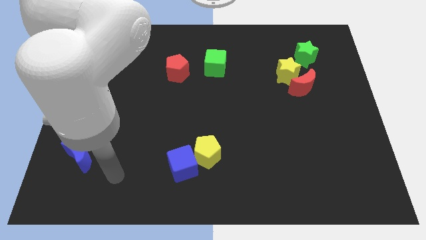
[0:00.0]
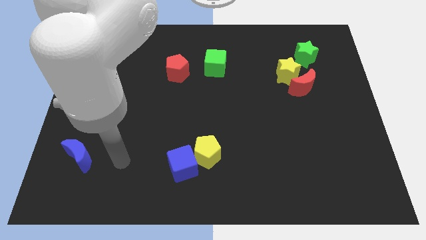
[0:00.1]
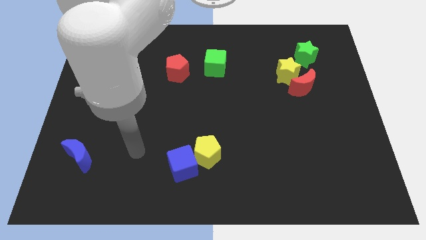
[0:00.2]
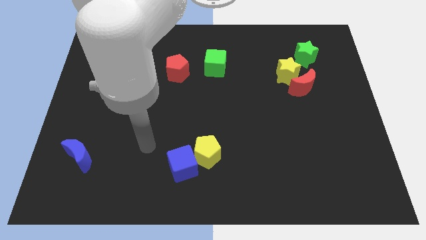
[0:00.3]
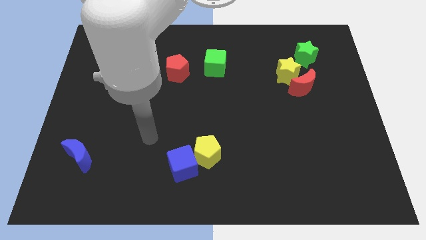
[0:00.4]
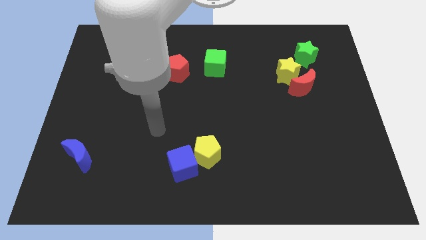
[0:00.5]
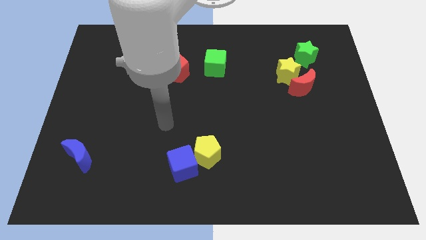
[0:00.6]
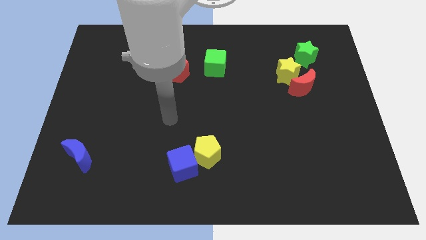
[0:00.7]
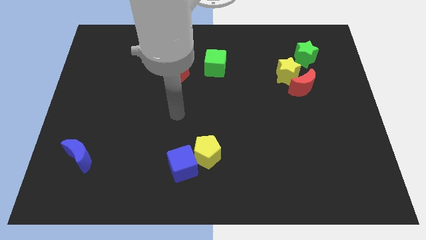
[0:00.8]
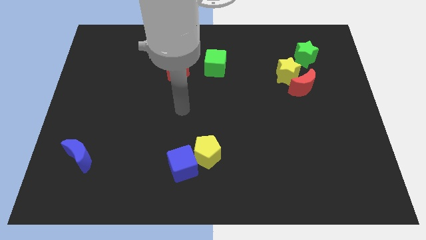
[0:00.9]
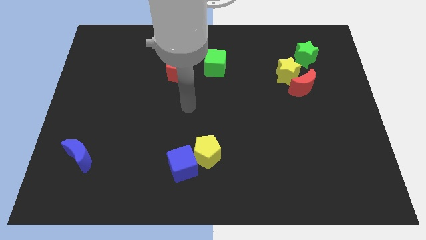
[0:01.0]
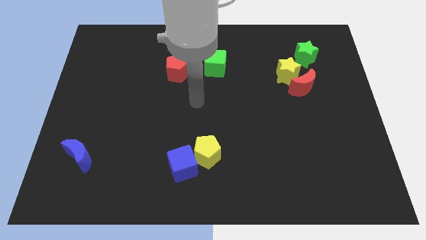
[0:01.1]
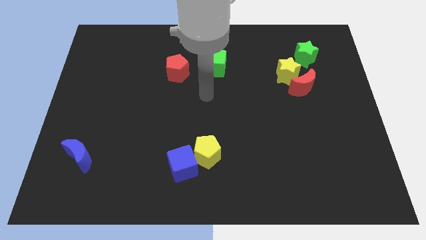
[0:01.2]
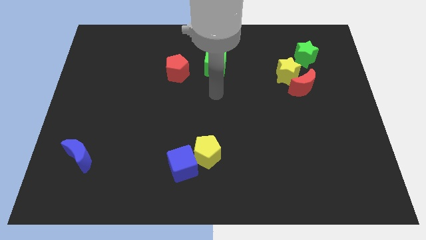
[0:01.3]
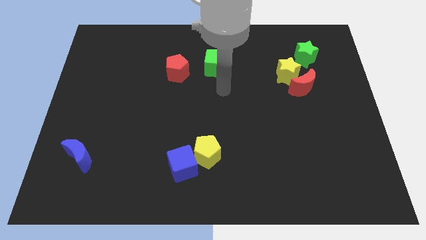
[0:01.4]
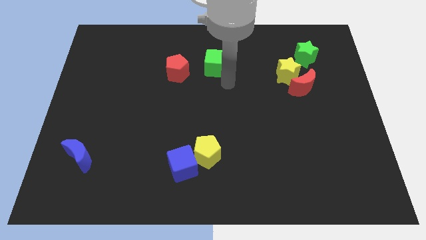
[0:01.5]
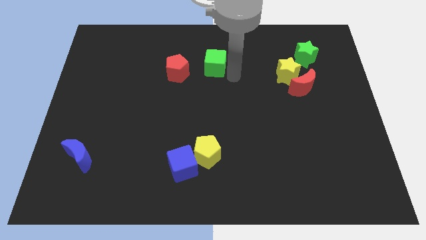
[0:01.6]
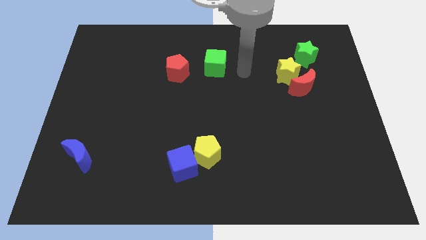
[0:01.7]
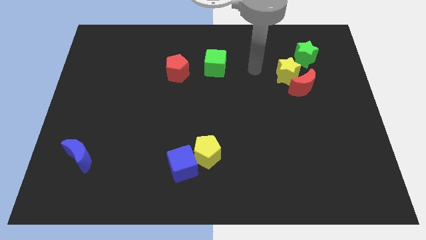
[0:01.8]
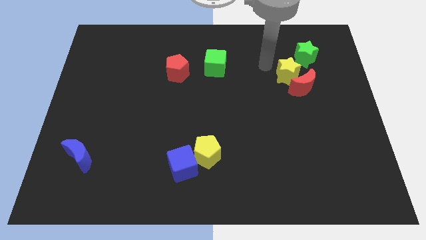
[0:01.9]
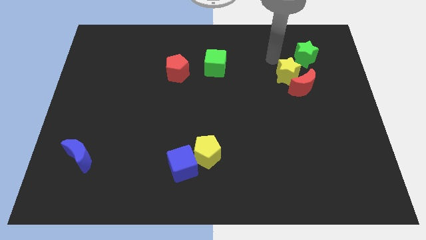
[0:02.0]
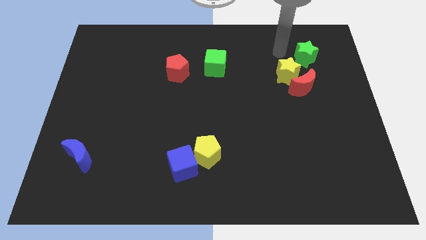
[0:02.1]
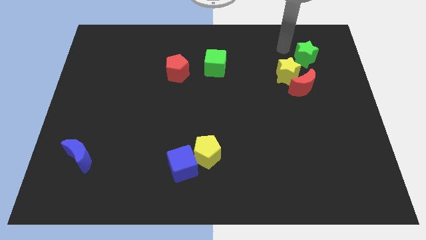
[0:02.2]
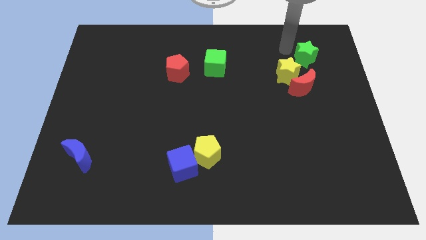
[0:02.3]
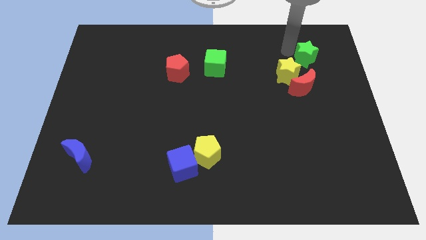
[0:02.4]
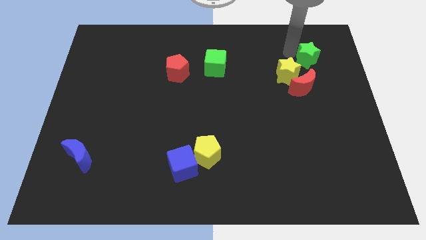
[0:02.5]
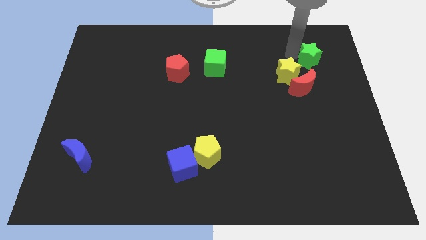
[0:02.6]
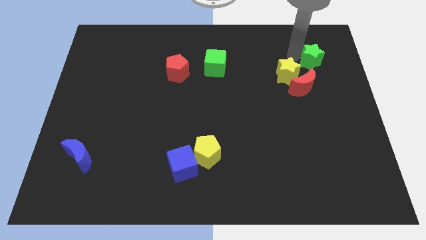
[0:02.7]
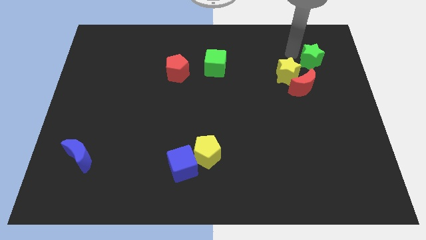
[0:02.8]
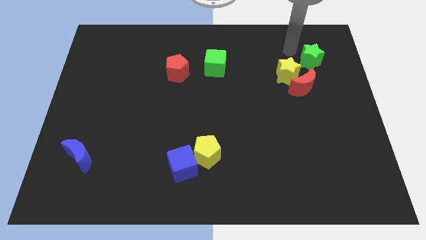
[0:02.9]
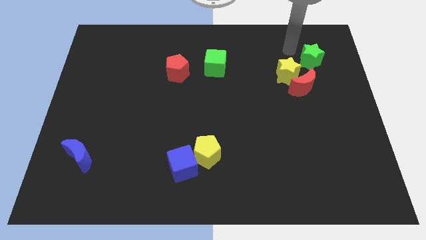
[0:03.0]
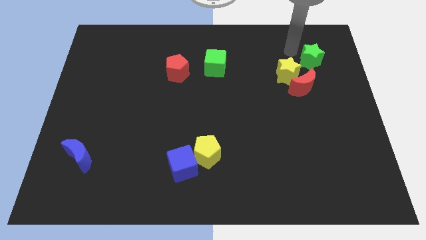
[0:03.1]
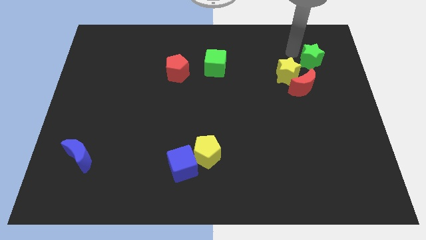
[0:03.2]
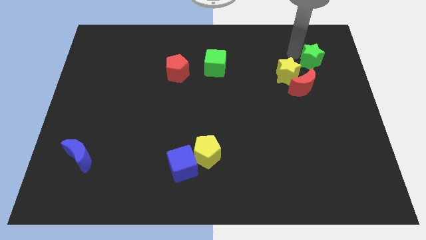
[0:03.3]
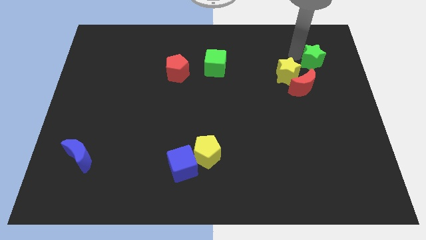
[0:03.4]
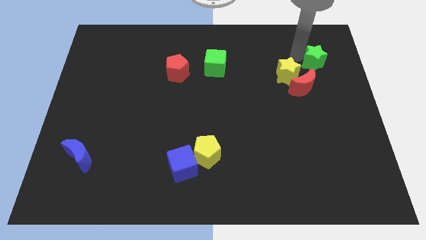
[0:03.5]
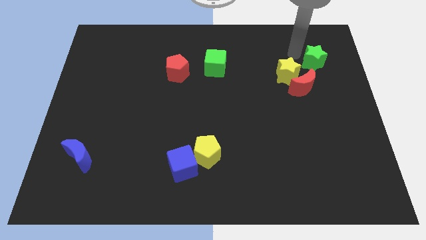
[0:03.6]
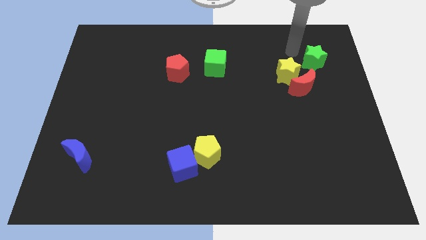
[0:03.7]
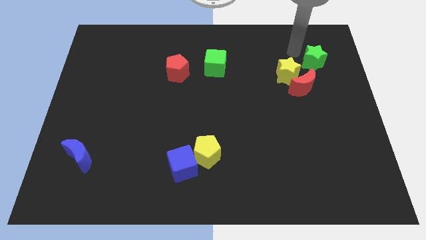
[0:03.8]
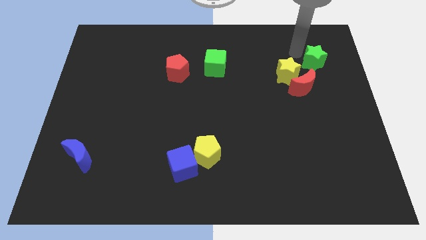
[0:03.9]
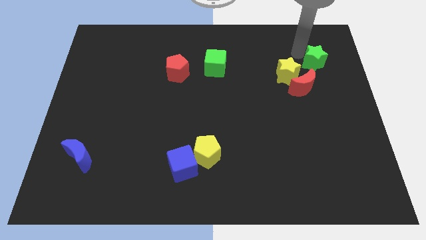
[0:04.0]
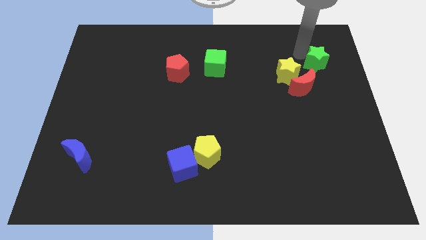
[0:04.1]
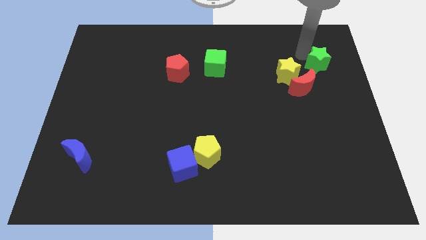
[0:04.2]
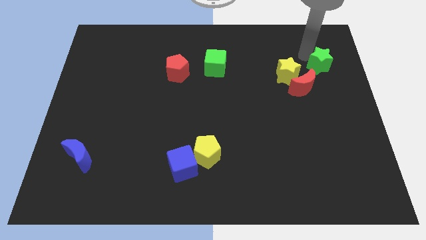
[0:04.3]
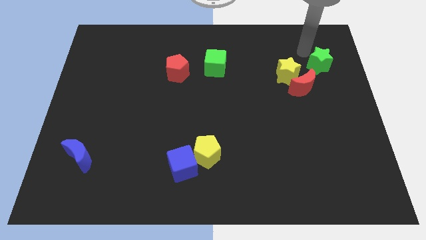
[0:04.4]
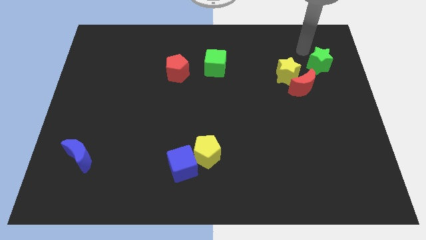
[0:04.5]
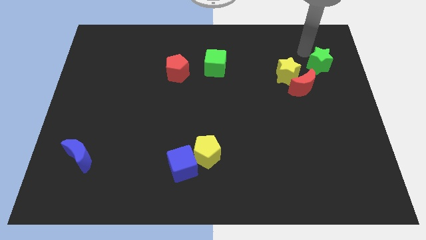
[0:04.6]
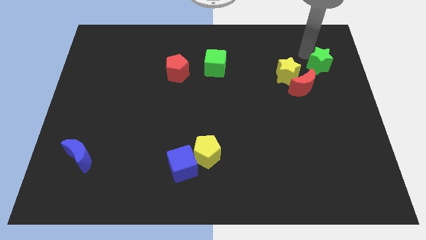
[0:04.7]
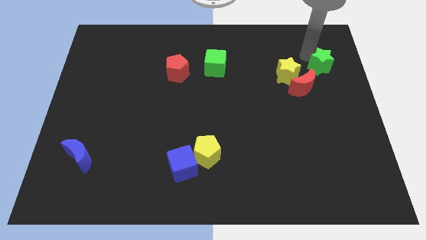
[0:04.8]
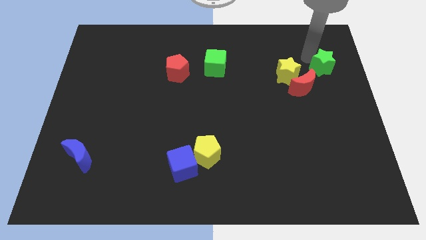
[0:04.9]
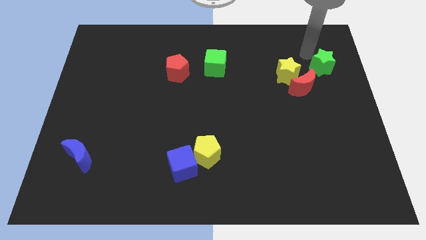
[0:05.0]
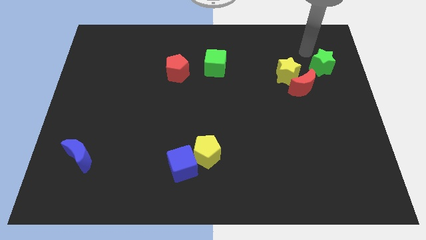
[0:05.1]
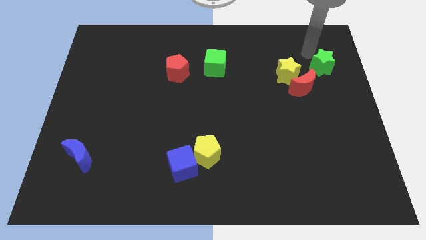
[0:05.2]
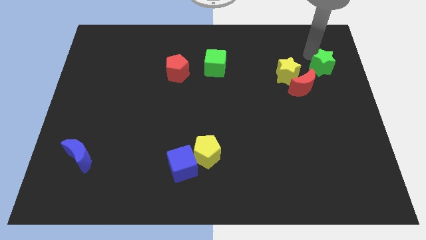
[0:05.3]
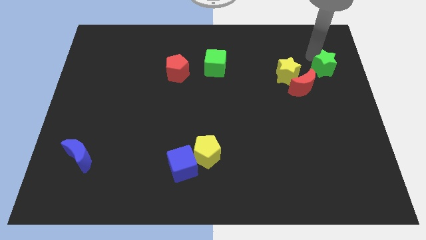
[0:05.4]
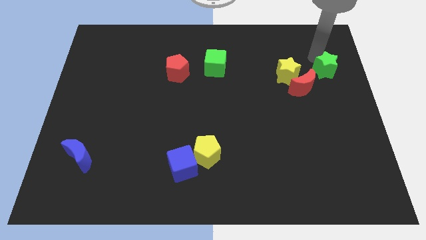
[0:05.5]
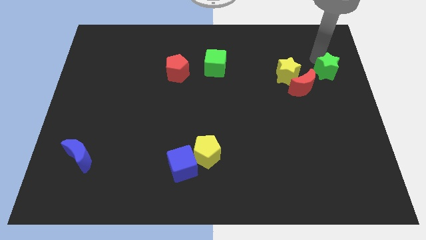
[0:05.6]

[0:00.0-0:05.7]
move the green star to the right side

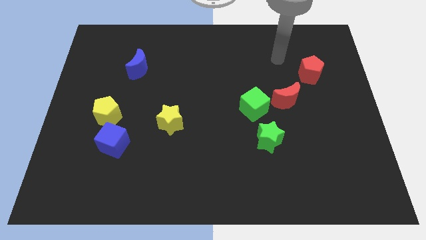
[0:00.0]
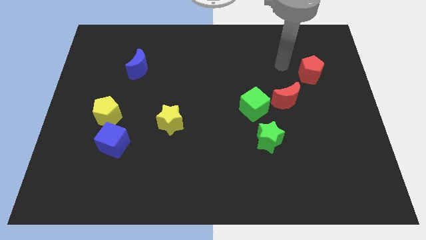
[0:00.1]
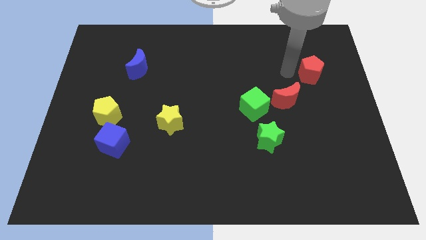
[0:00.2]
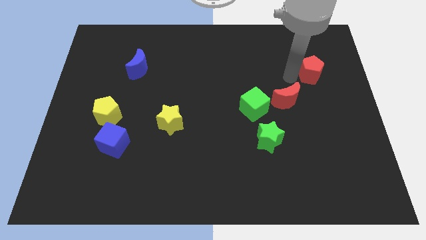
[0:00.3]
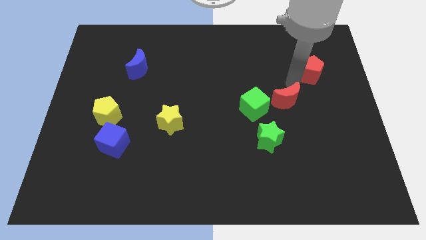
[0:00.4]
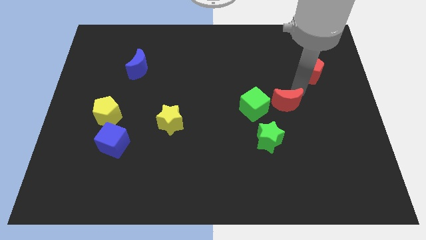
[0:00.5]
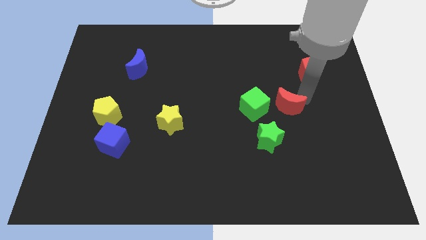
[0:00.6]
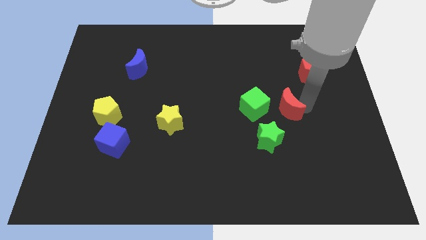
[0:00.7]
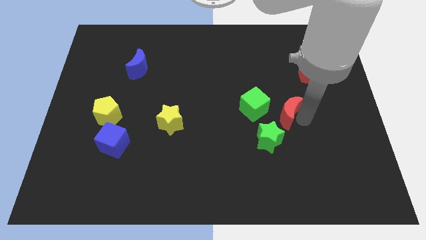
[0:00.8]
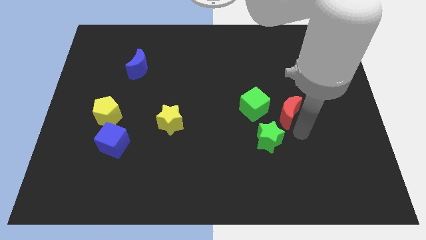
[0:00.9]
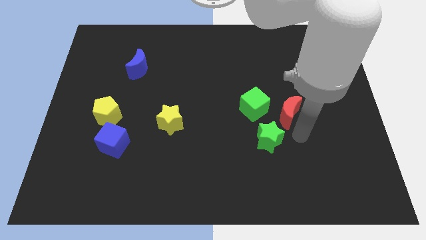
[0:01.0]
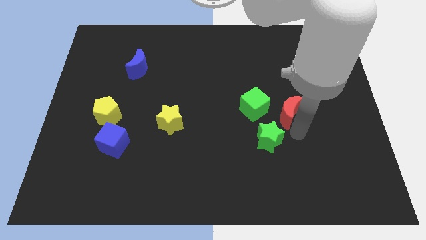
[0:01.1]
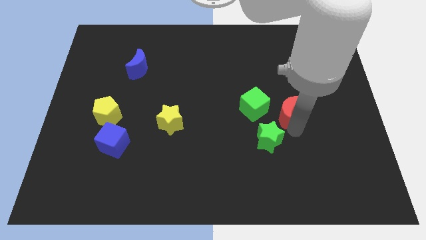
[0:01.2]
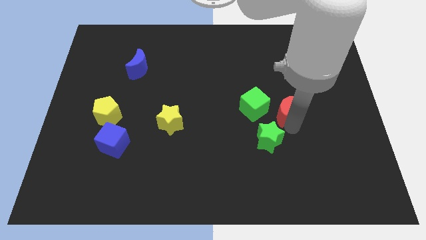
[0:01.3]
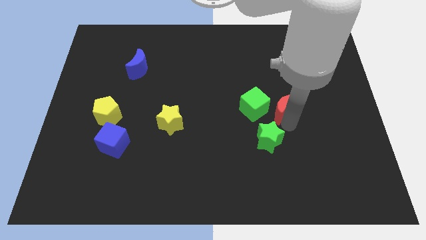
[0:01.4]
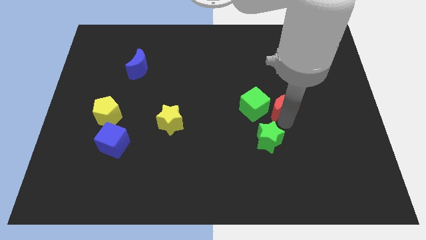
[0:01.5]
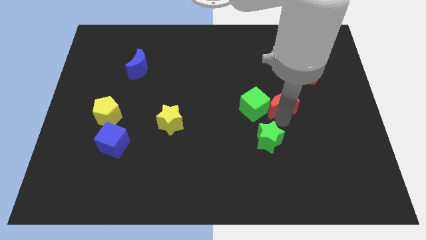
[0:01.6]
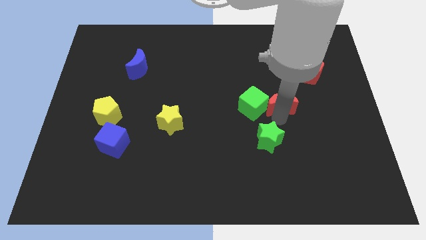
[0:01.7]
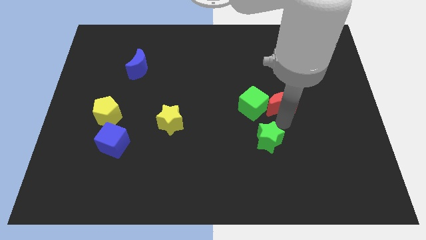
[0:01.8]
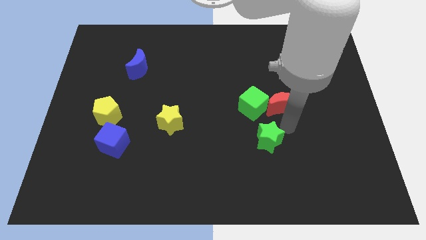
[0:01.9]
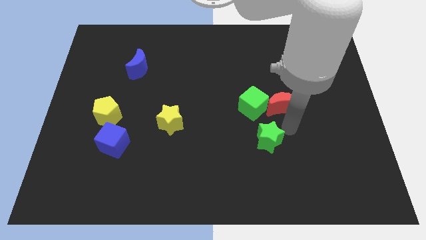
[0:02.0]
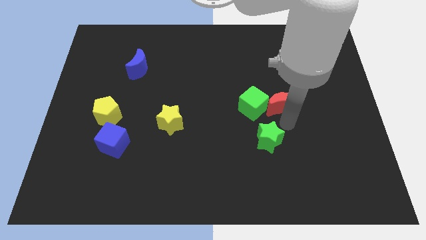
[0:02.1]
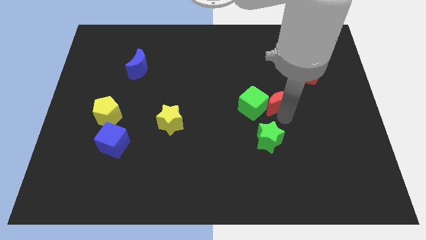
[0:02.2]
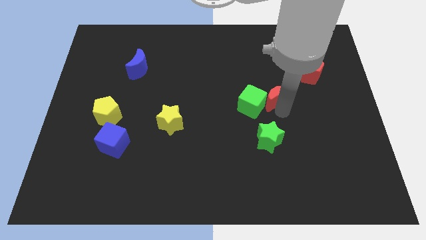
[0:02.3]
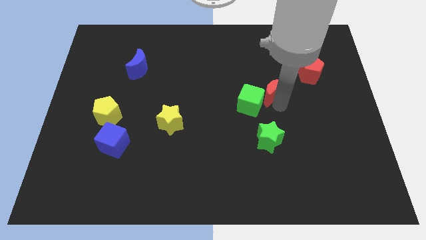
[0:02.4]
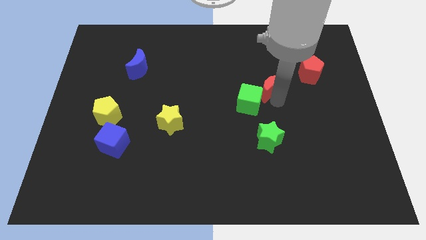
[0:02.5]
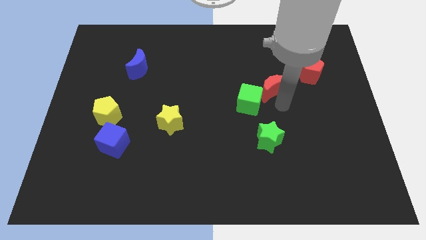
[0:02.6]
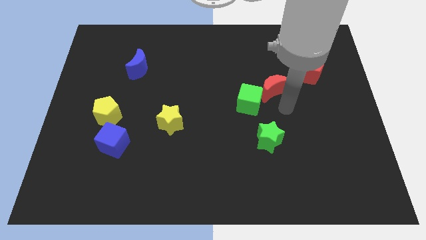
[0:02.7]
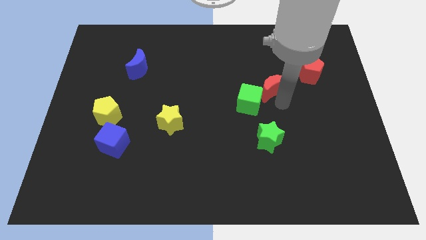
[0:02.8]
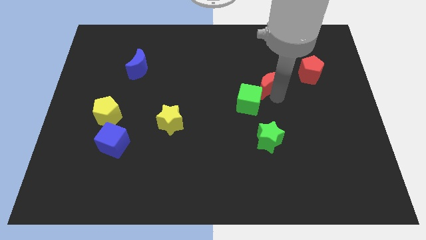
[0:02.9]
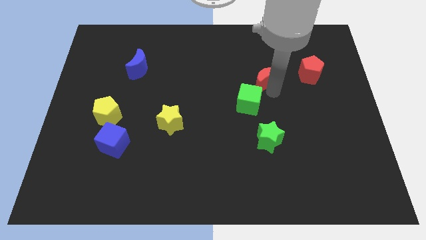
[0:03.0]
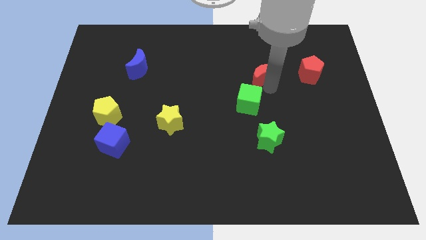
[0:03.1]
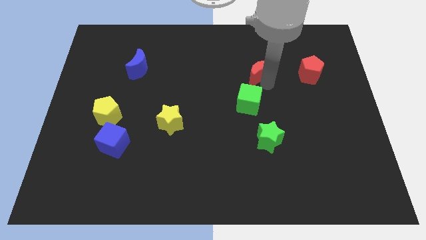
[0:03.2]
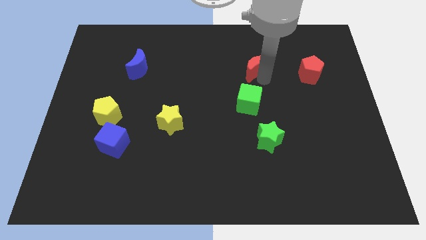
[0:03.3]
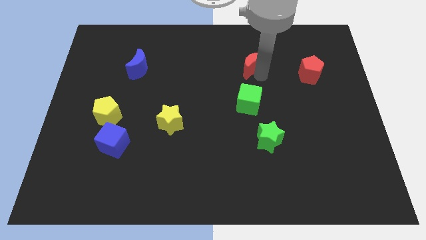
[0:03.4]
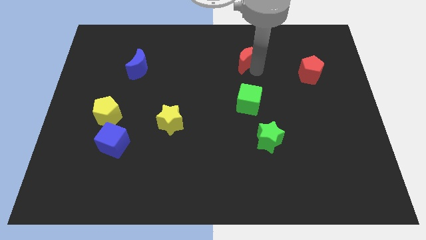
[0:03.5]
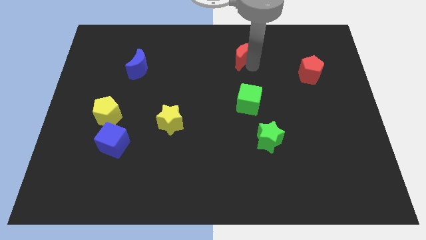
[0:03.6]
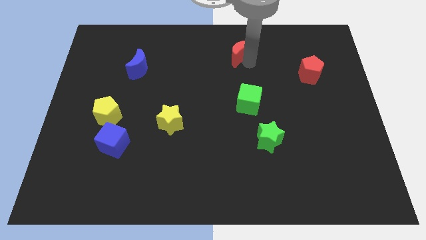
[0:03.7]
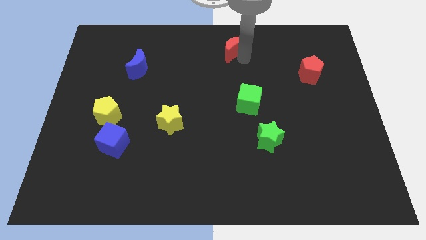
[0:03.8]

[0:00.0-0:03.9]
push the red moon to the top side
